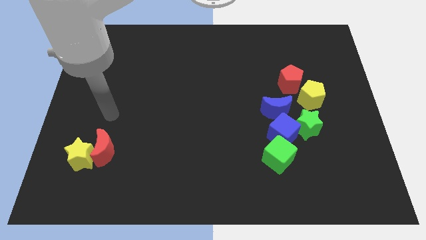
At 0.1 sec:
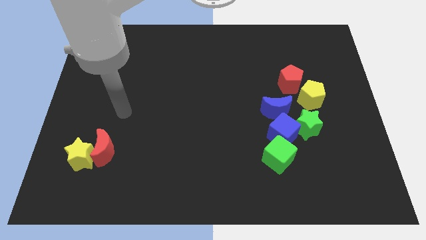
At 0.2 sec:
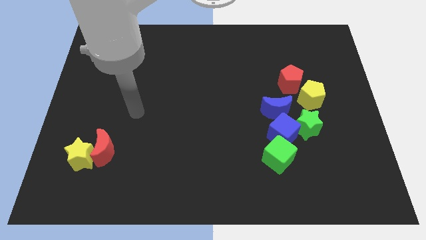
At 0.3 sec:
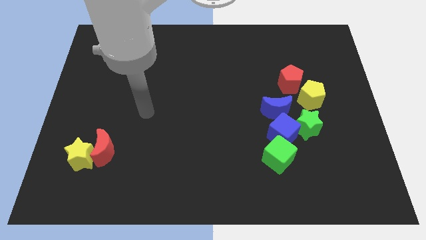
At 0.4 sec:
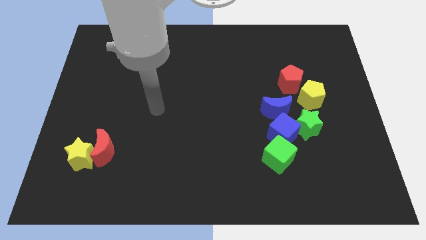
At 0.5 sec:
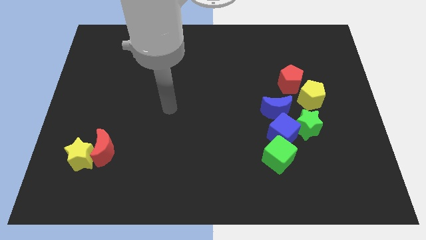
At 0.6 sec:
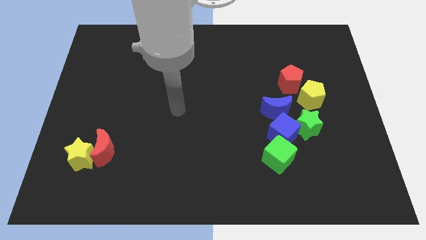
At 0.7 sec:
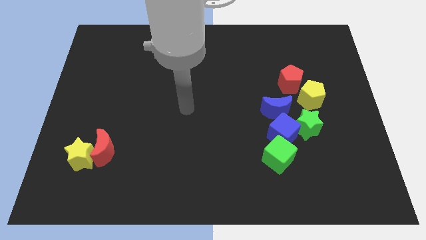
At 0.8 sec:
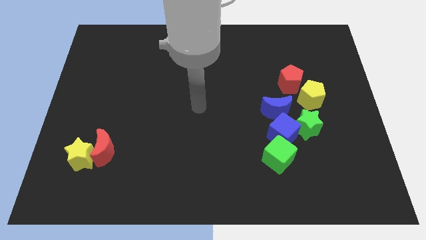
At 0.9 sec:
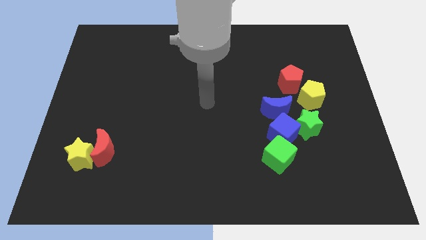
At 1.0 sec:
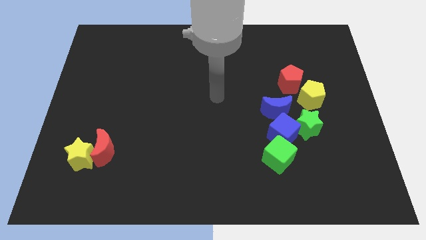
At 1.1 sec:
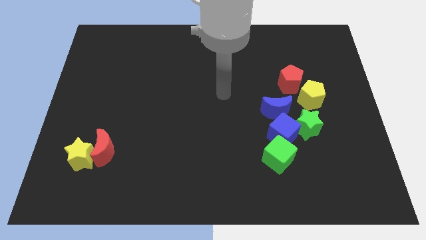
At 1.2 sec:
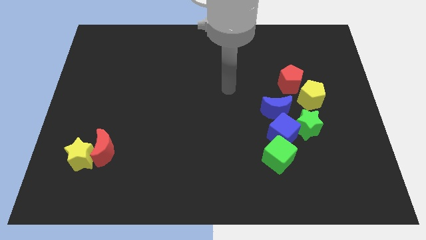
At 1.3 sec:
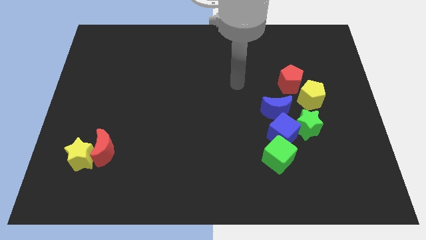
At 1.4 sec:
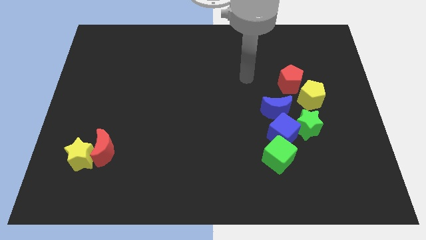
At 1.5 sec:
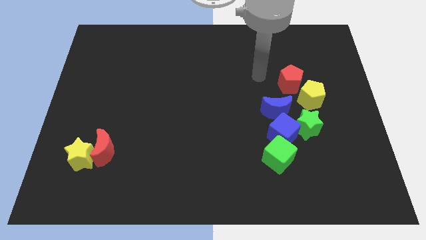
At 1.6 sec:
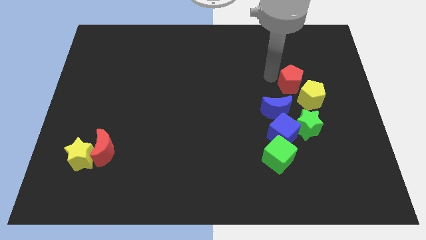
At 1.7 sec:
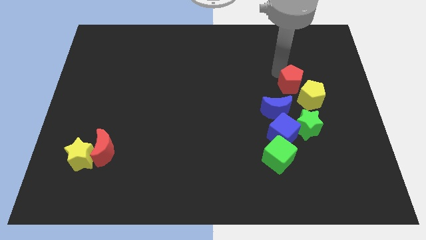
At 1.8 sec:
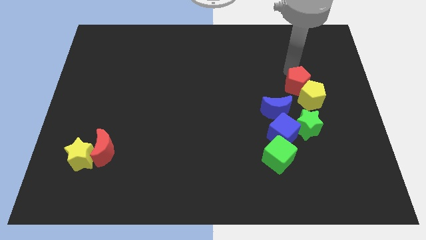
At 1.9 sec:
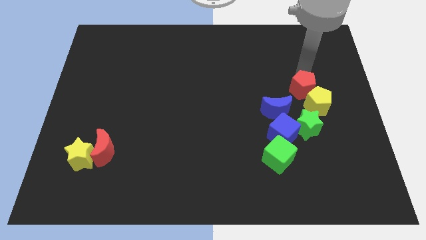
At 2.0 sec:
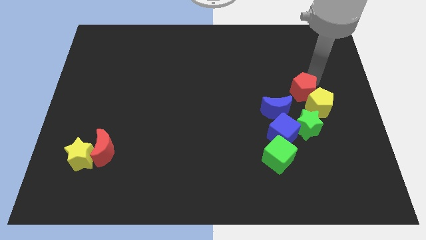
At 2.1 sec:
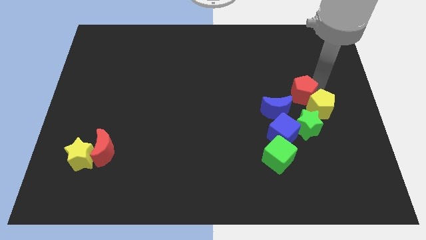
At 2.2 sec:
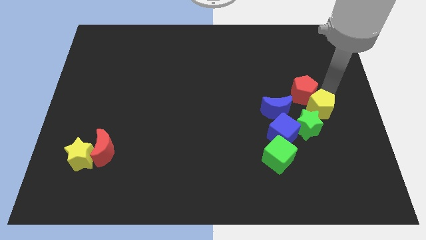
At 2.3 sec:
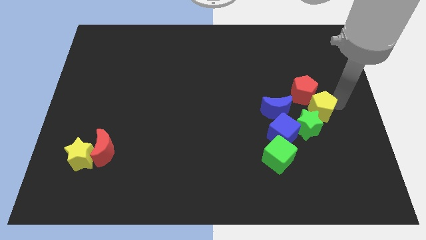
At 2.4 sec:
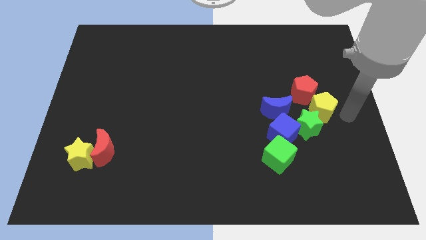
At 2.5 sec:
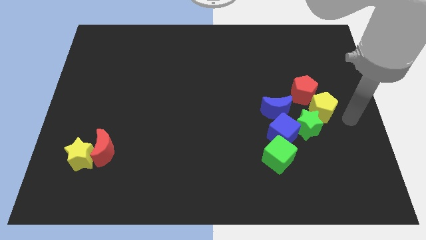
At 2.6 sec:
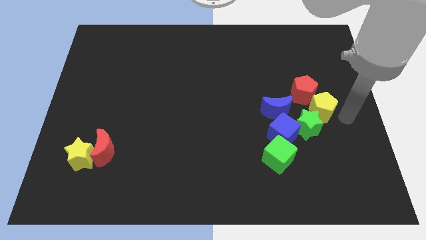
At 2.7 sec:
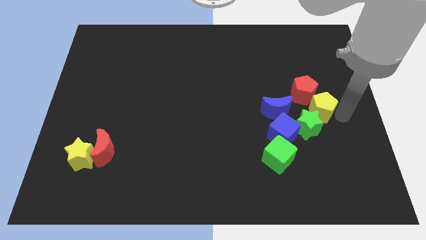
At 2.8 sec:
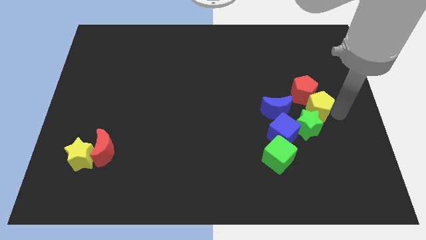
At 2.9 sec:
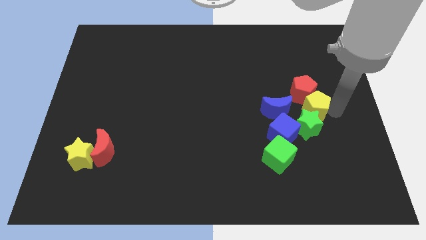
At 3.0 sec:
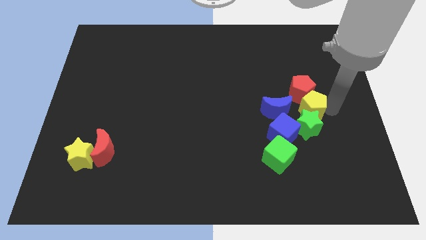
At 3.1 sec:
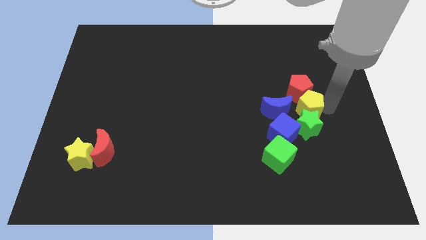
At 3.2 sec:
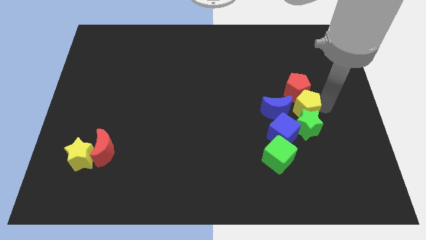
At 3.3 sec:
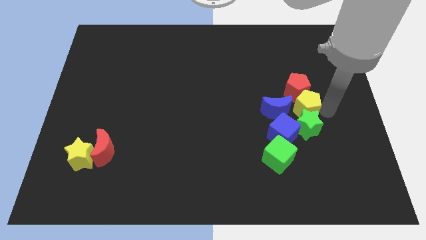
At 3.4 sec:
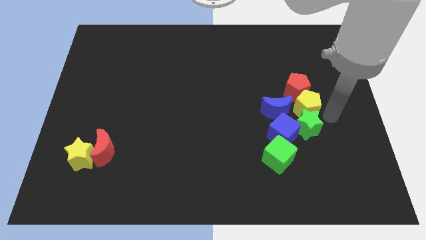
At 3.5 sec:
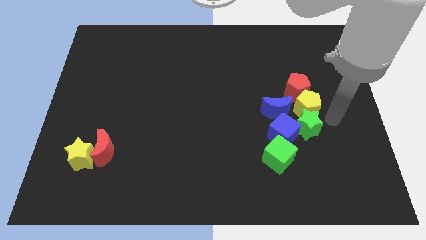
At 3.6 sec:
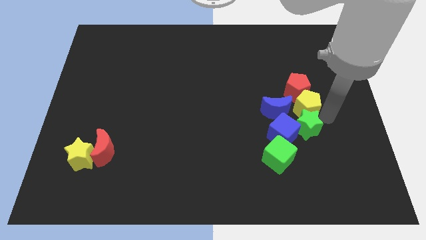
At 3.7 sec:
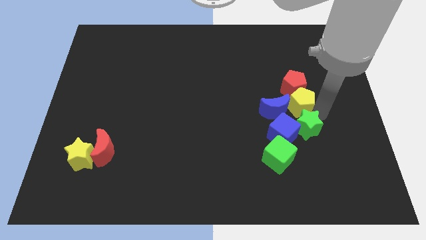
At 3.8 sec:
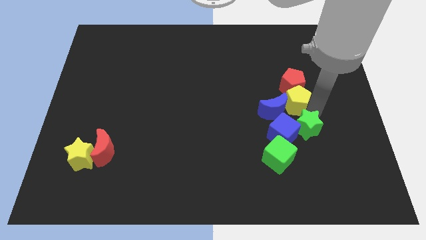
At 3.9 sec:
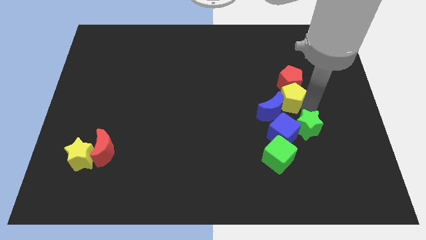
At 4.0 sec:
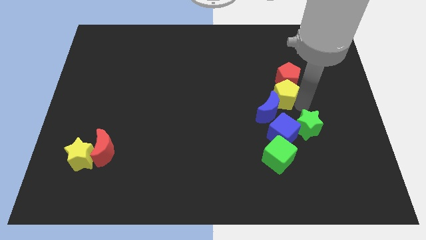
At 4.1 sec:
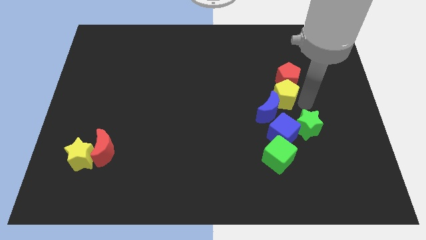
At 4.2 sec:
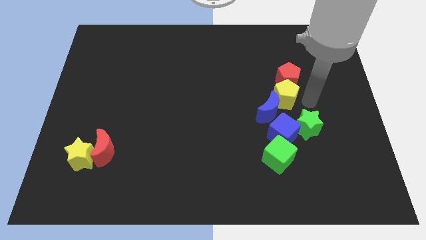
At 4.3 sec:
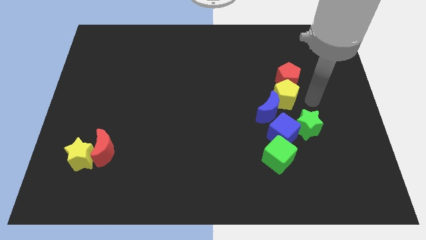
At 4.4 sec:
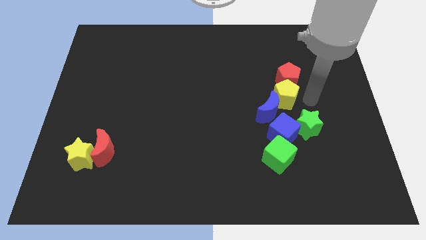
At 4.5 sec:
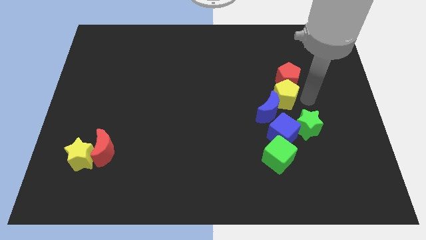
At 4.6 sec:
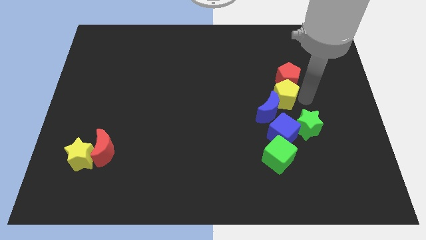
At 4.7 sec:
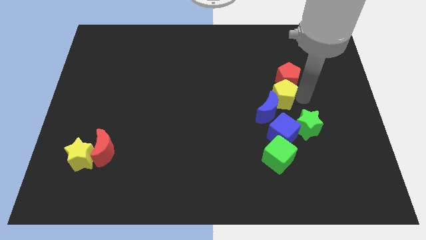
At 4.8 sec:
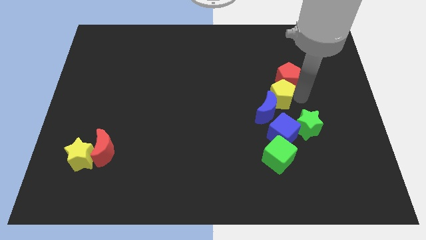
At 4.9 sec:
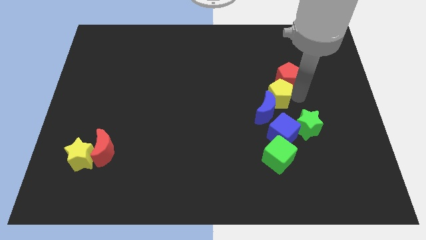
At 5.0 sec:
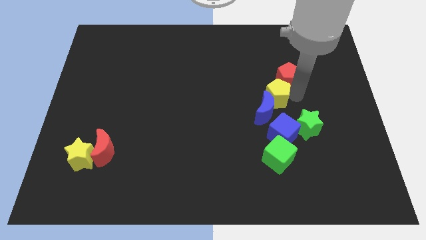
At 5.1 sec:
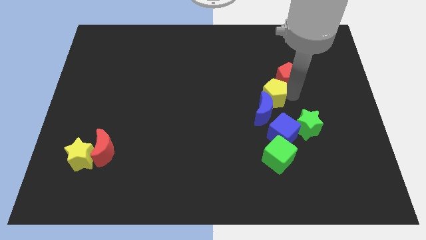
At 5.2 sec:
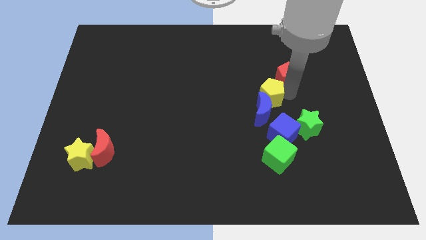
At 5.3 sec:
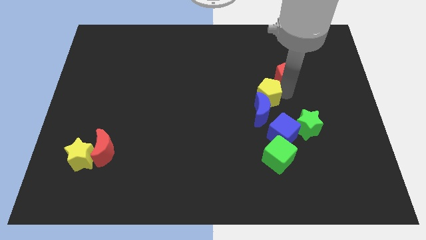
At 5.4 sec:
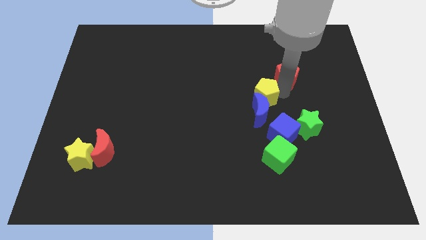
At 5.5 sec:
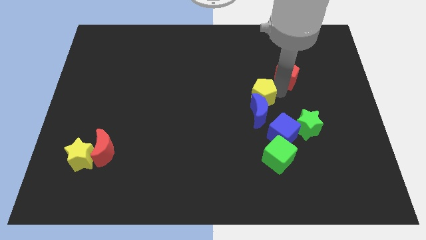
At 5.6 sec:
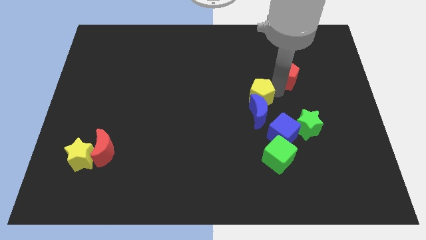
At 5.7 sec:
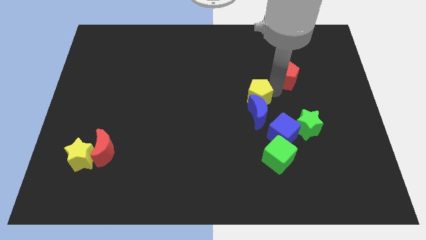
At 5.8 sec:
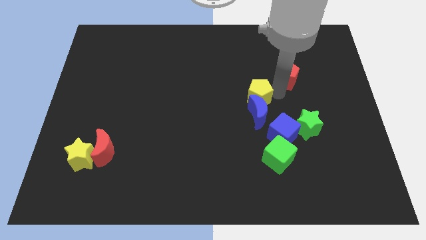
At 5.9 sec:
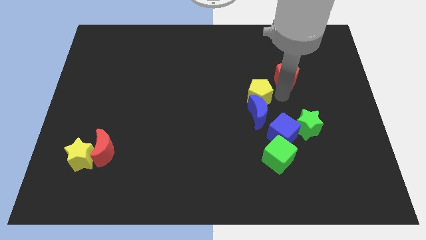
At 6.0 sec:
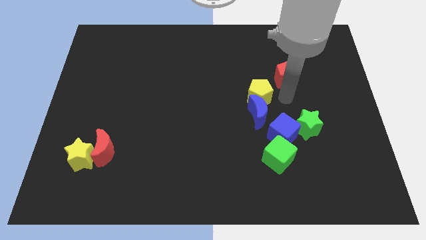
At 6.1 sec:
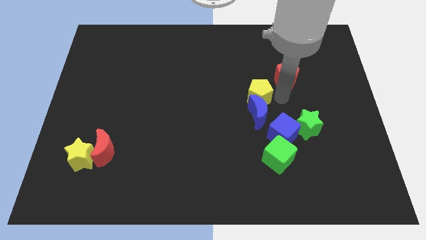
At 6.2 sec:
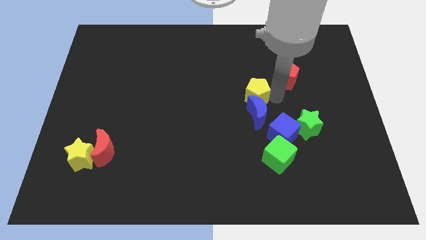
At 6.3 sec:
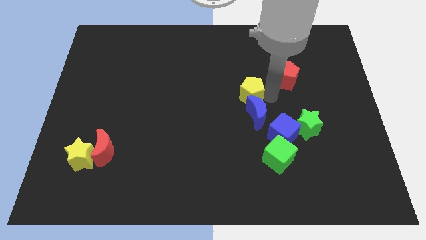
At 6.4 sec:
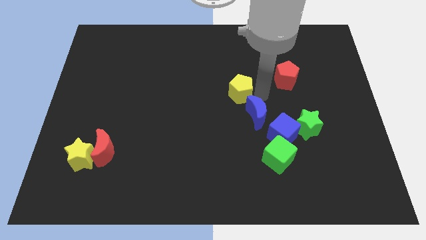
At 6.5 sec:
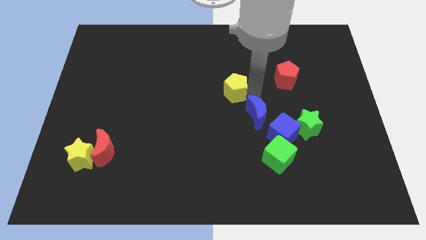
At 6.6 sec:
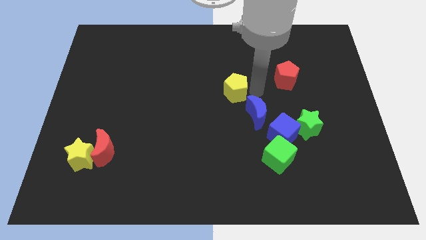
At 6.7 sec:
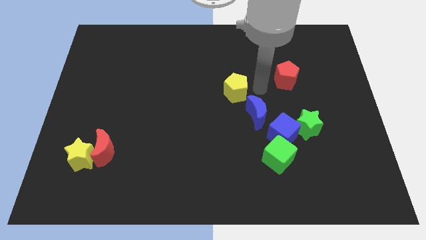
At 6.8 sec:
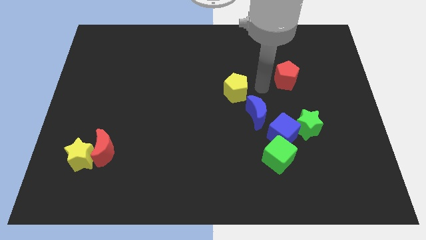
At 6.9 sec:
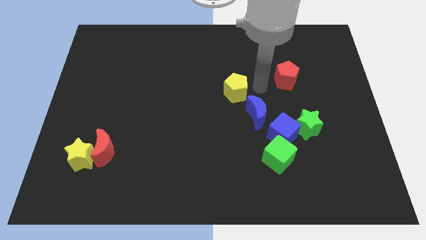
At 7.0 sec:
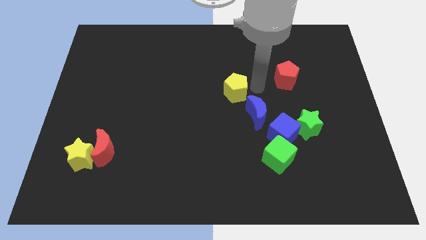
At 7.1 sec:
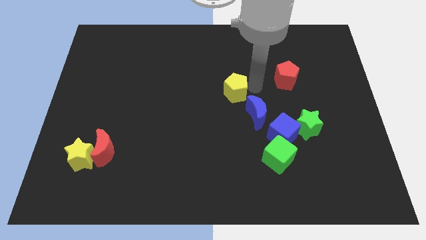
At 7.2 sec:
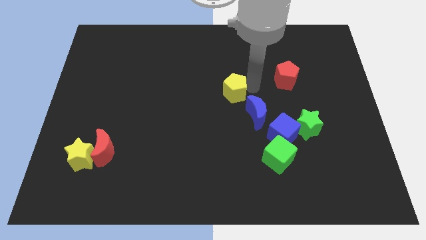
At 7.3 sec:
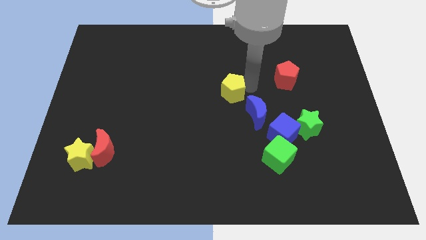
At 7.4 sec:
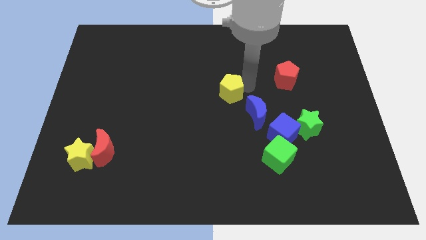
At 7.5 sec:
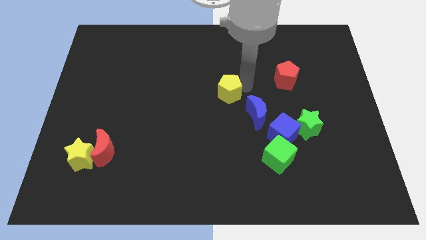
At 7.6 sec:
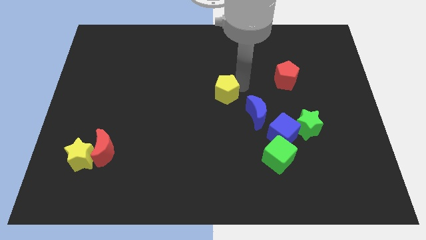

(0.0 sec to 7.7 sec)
move the yellow pentagon left

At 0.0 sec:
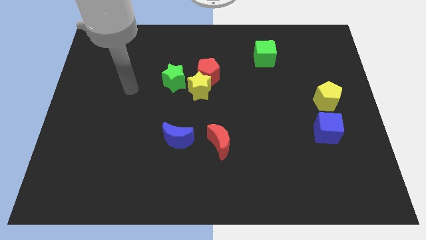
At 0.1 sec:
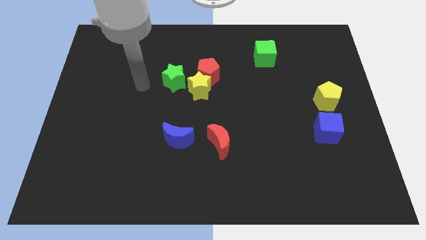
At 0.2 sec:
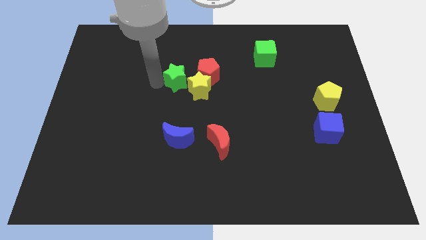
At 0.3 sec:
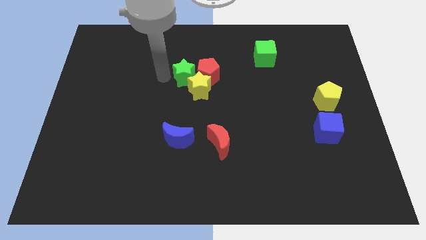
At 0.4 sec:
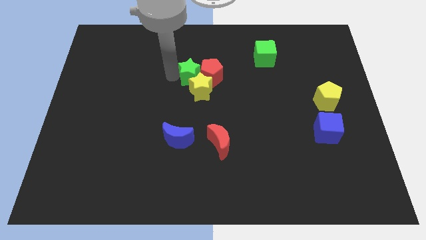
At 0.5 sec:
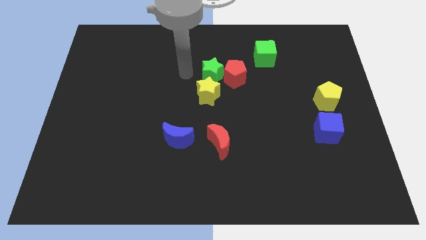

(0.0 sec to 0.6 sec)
slide the red pentagon a little bit to the right
